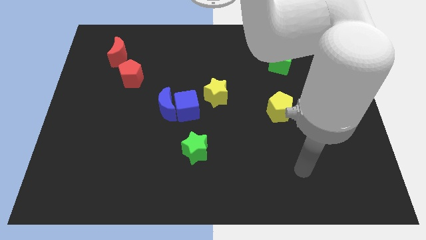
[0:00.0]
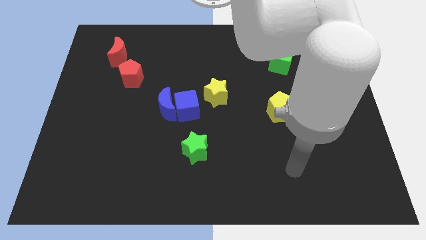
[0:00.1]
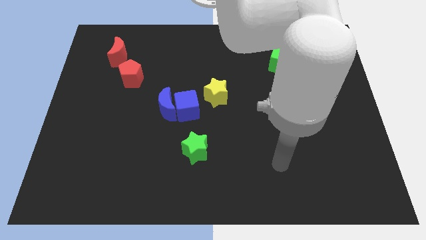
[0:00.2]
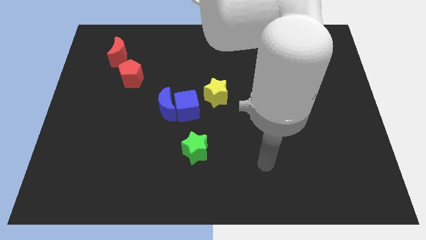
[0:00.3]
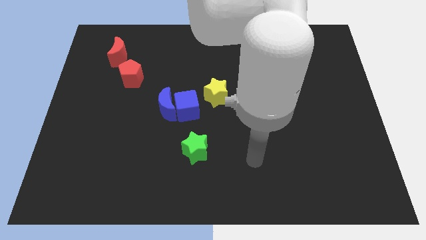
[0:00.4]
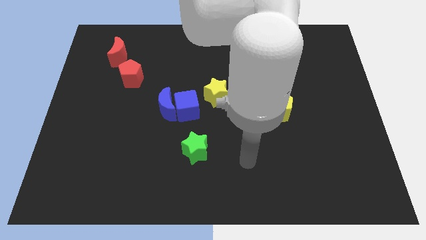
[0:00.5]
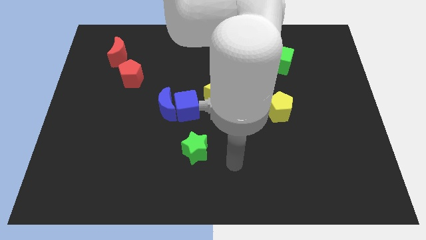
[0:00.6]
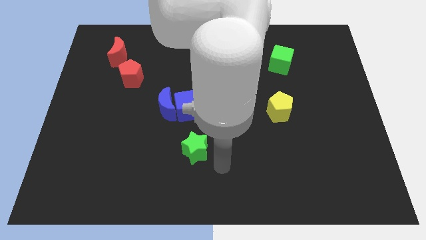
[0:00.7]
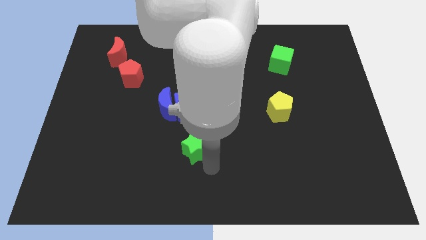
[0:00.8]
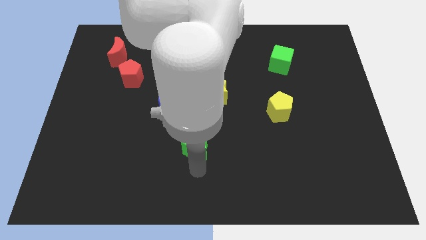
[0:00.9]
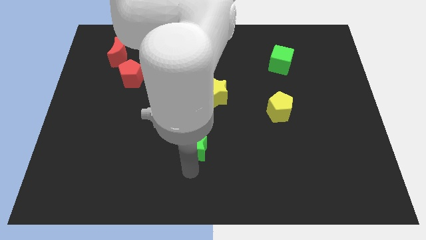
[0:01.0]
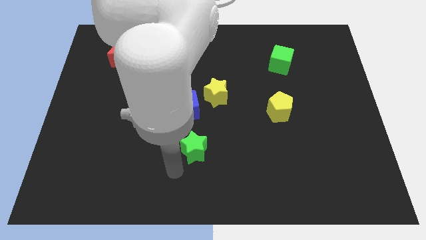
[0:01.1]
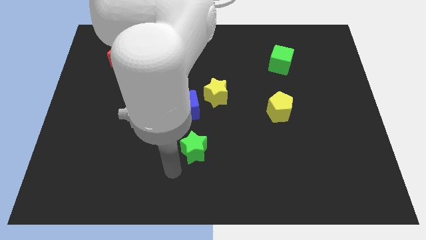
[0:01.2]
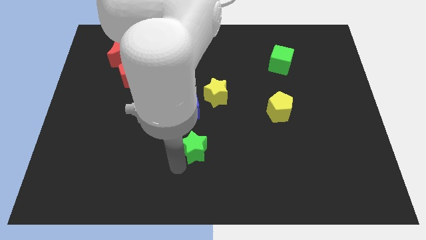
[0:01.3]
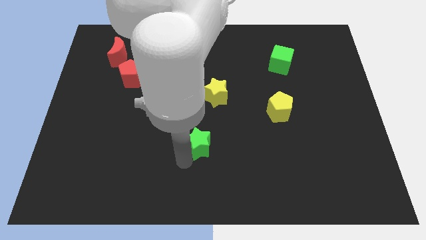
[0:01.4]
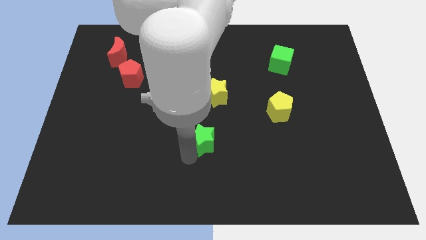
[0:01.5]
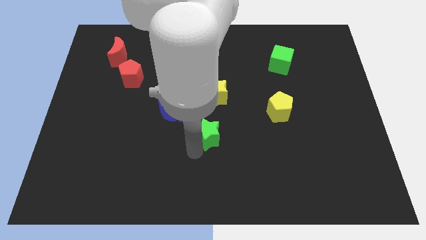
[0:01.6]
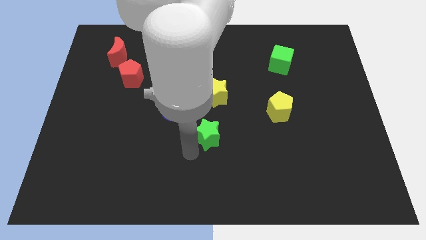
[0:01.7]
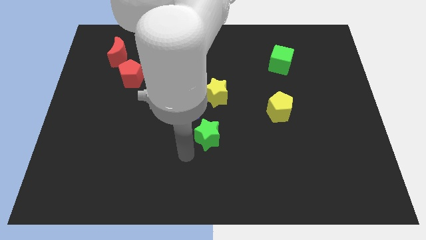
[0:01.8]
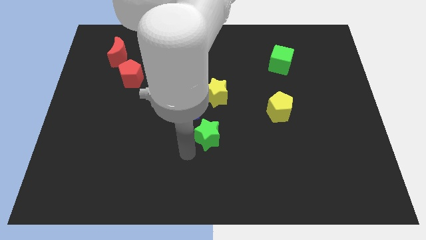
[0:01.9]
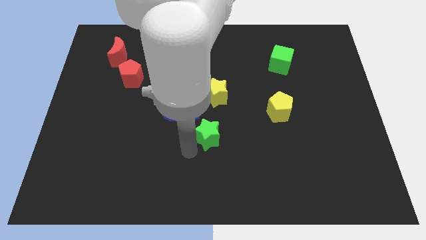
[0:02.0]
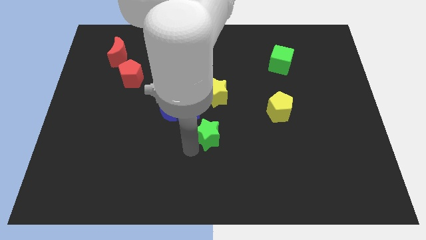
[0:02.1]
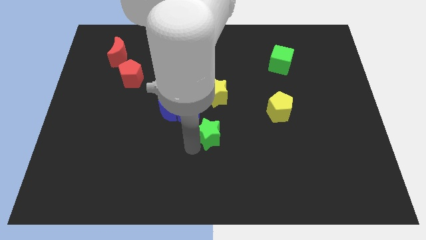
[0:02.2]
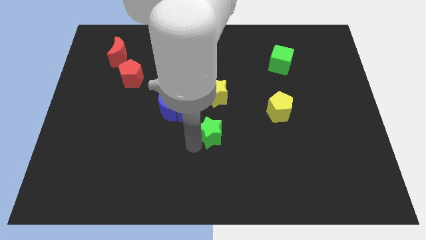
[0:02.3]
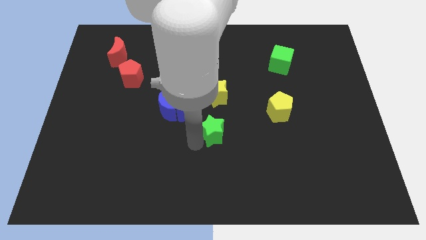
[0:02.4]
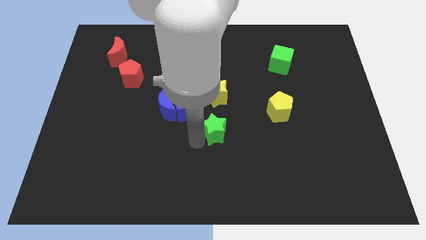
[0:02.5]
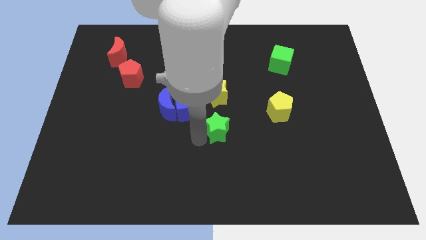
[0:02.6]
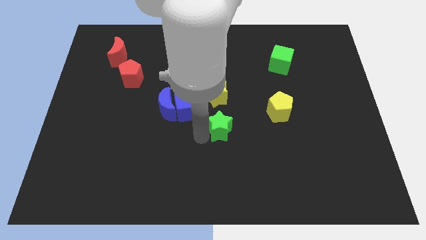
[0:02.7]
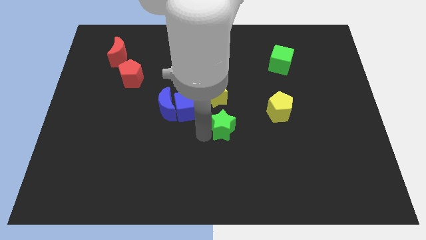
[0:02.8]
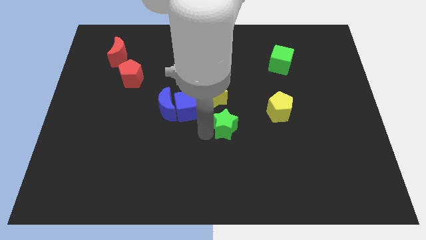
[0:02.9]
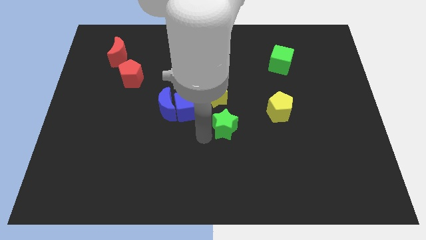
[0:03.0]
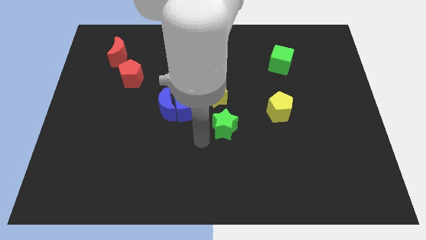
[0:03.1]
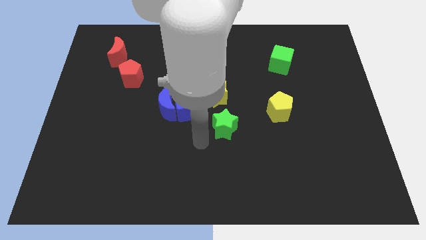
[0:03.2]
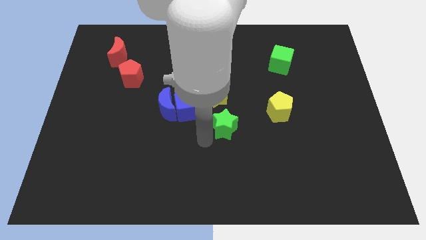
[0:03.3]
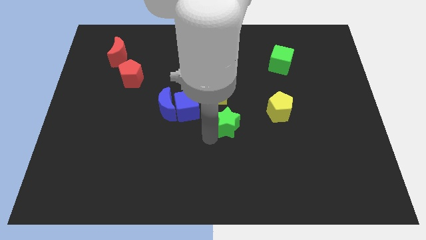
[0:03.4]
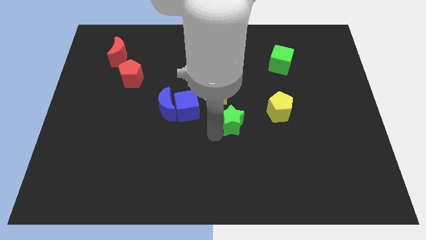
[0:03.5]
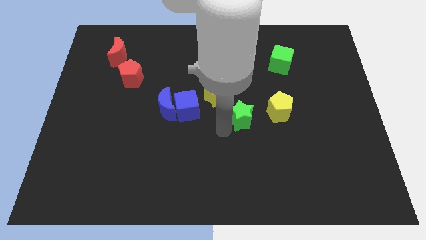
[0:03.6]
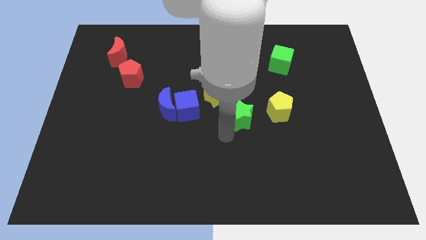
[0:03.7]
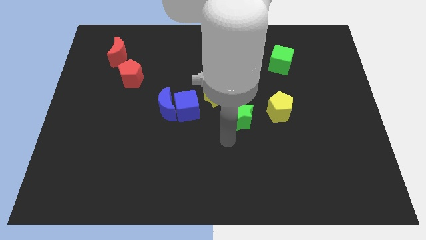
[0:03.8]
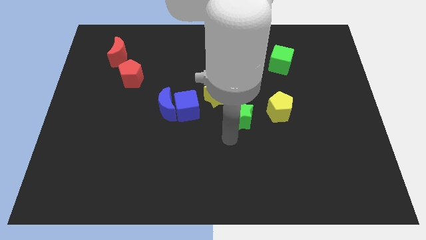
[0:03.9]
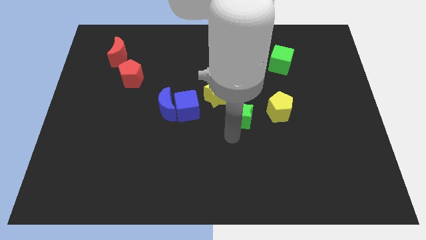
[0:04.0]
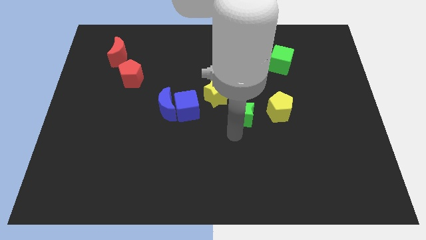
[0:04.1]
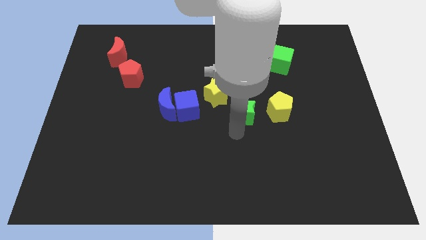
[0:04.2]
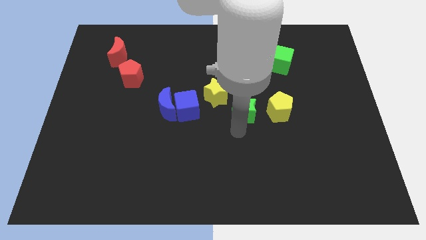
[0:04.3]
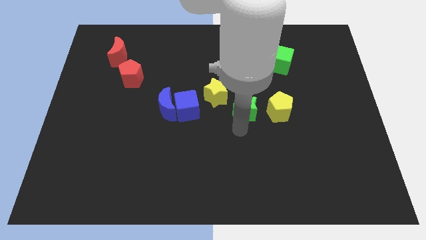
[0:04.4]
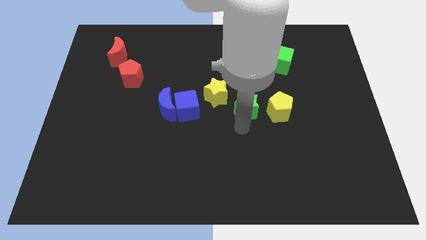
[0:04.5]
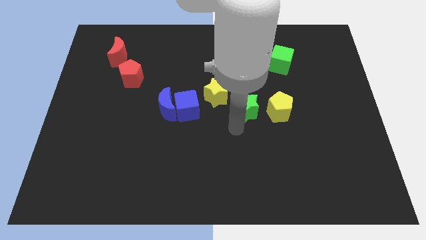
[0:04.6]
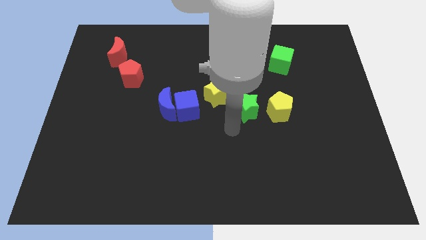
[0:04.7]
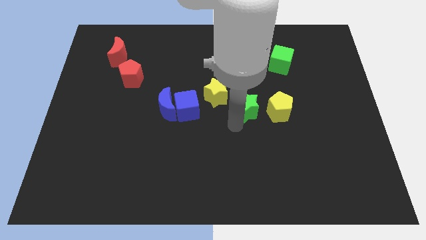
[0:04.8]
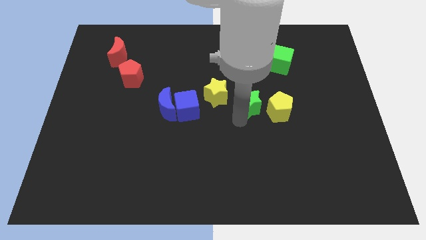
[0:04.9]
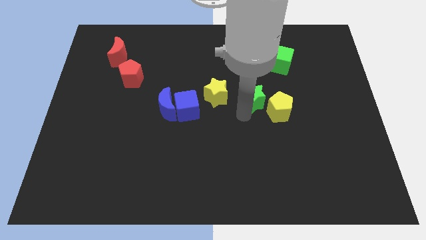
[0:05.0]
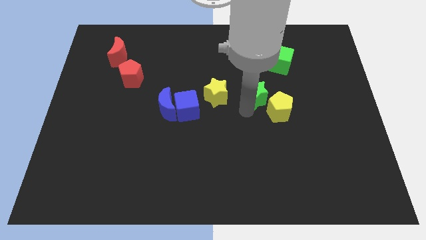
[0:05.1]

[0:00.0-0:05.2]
slide the green star upwards and right diagonally

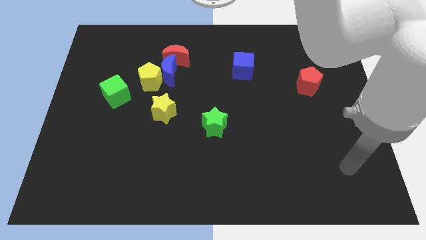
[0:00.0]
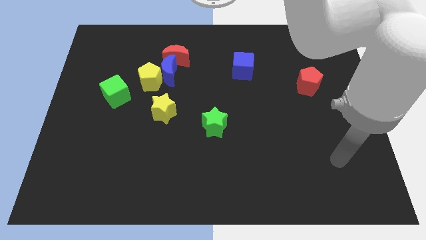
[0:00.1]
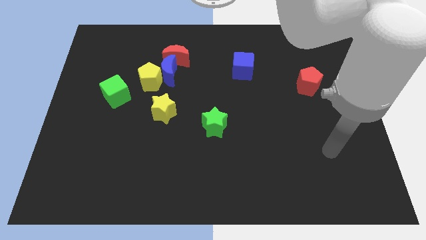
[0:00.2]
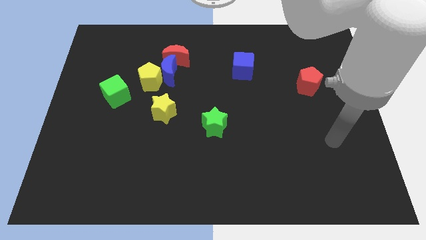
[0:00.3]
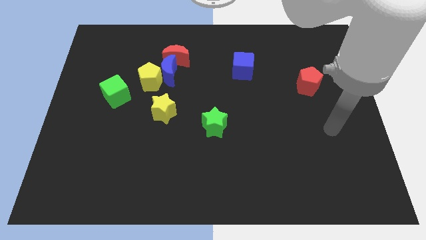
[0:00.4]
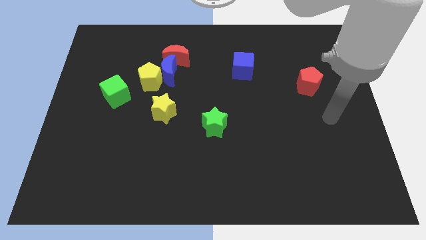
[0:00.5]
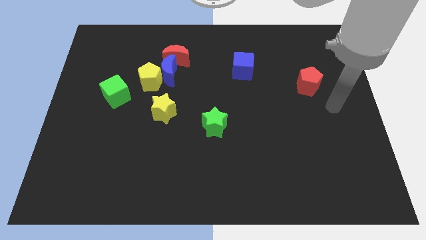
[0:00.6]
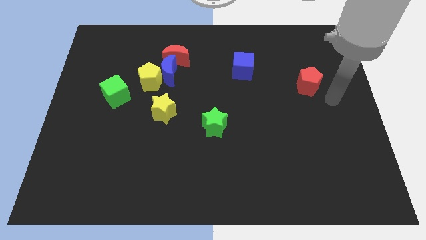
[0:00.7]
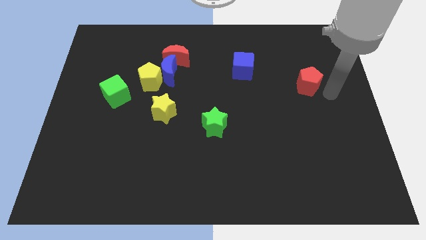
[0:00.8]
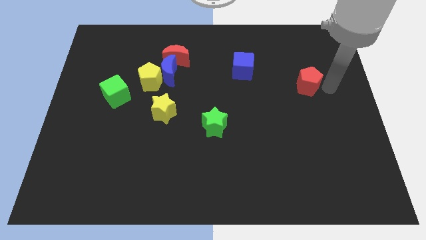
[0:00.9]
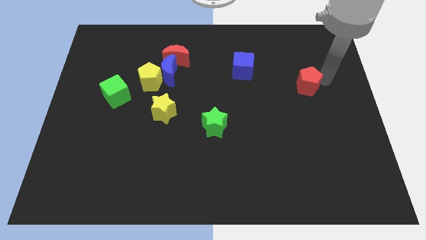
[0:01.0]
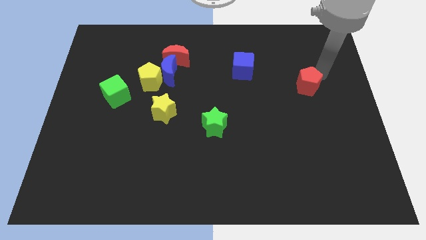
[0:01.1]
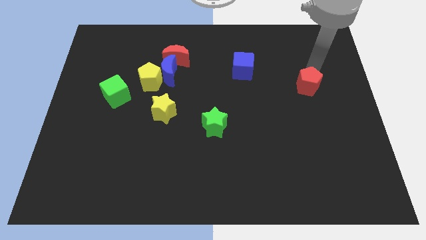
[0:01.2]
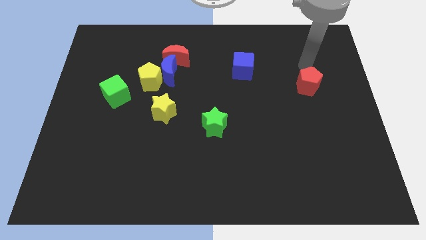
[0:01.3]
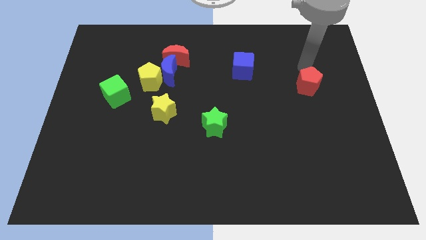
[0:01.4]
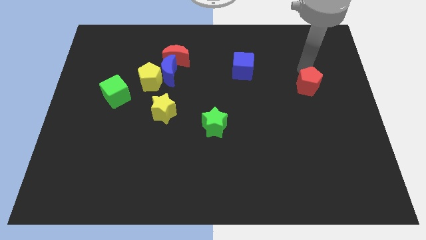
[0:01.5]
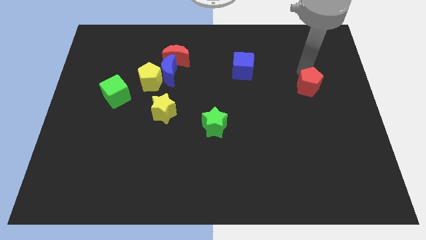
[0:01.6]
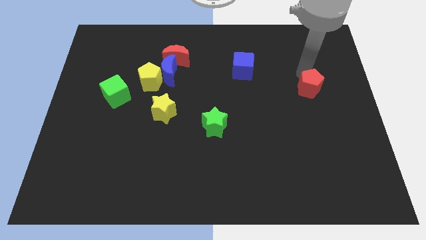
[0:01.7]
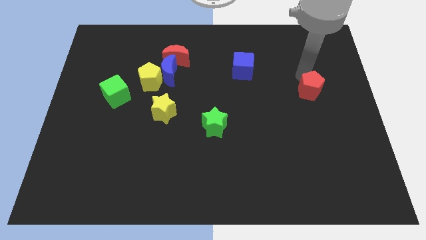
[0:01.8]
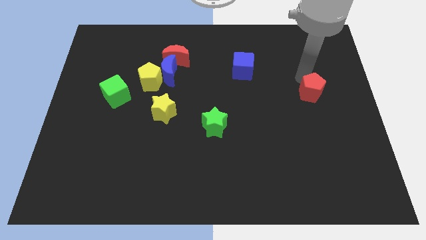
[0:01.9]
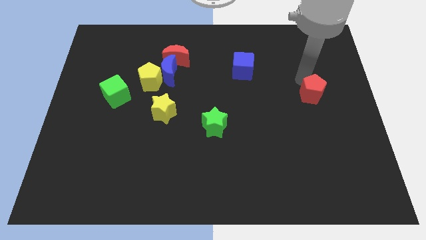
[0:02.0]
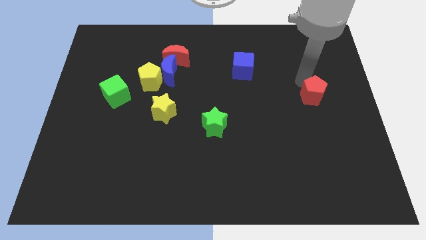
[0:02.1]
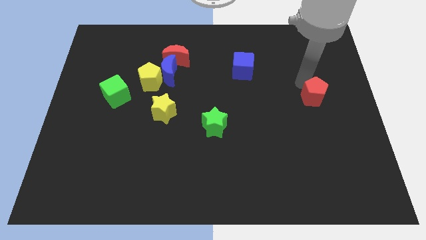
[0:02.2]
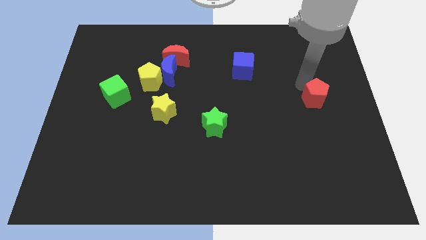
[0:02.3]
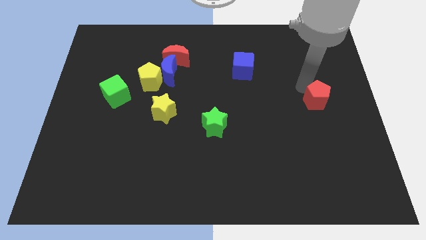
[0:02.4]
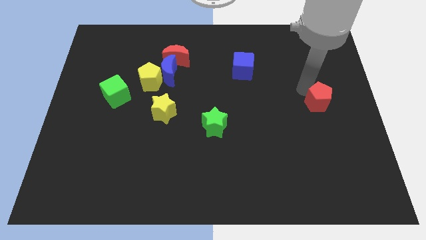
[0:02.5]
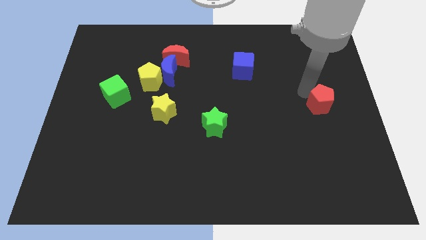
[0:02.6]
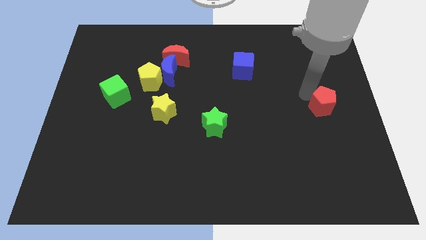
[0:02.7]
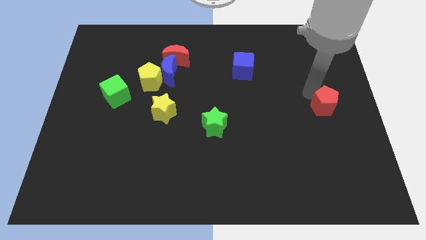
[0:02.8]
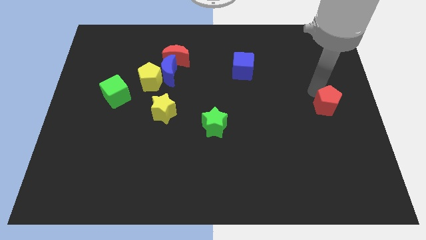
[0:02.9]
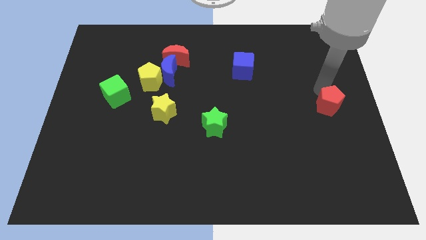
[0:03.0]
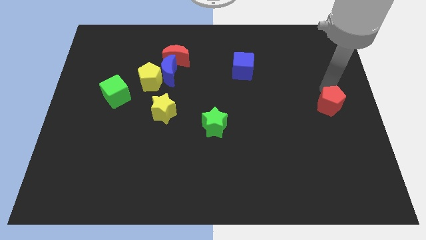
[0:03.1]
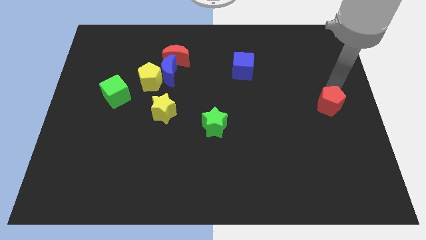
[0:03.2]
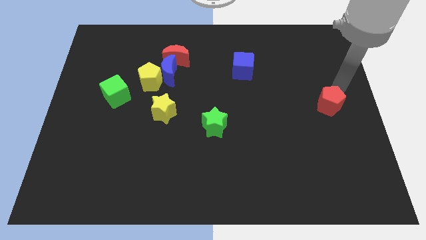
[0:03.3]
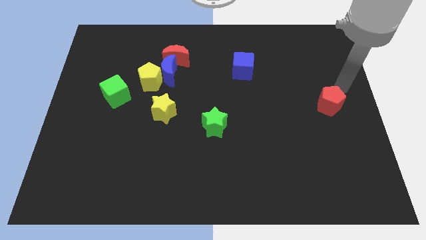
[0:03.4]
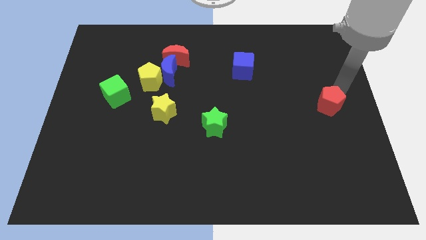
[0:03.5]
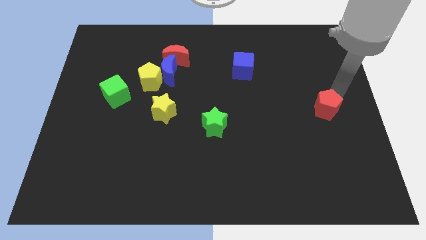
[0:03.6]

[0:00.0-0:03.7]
push the red pentagon slightly downwards

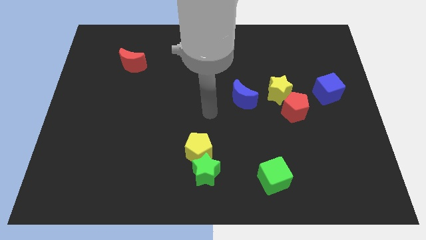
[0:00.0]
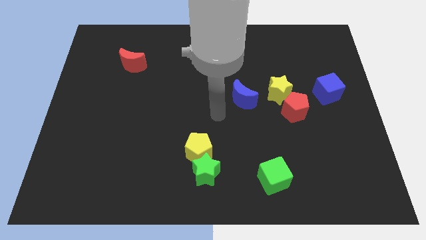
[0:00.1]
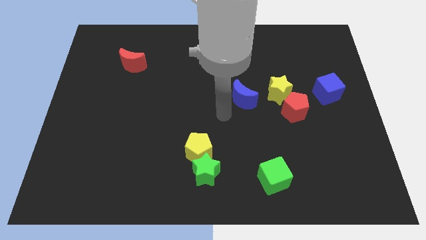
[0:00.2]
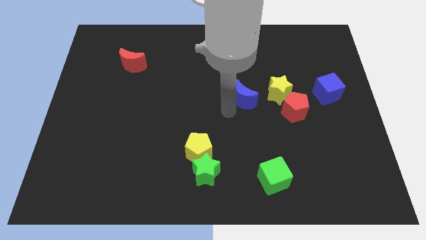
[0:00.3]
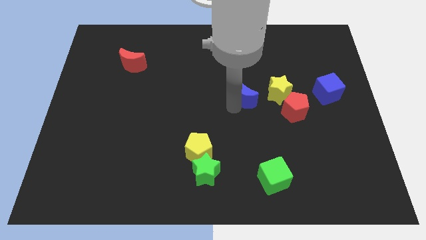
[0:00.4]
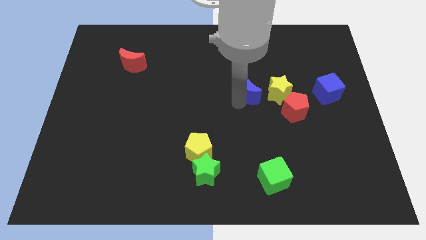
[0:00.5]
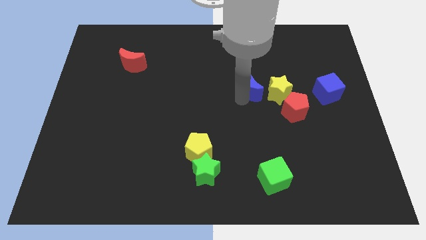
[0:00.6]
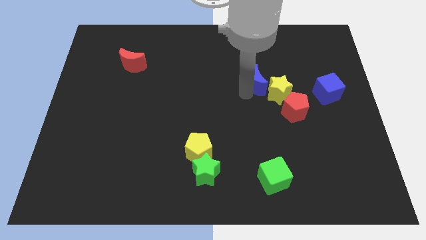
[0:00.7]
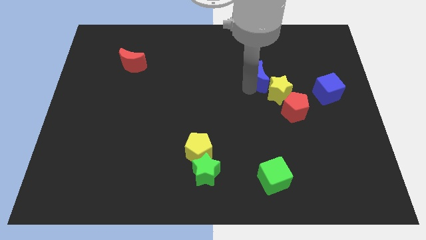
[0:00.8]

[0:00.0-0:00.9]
push the blue moon slightly diagonally upwards and to the right
